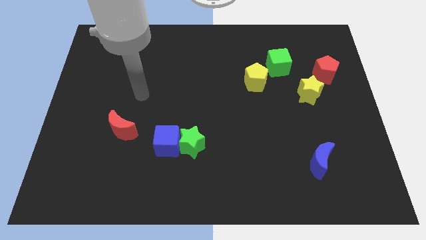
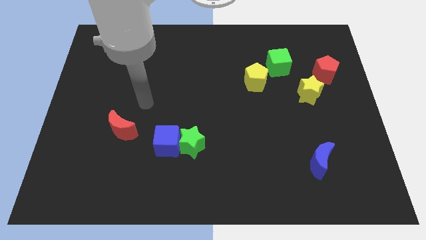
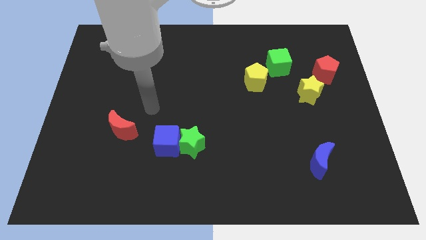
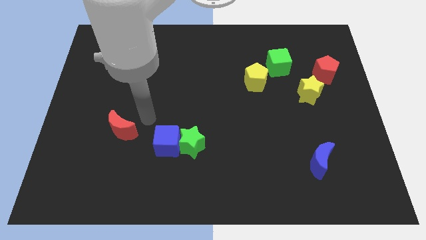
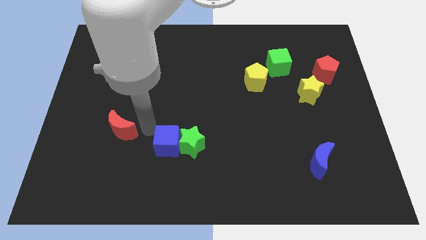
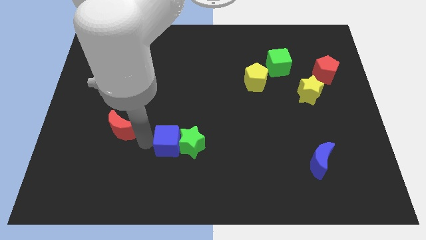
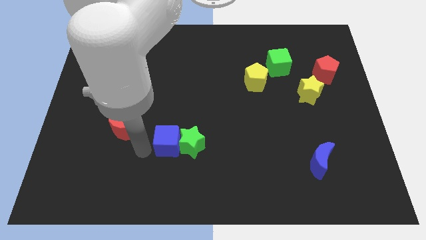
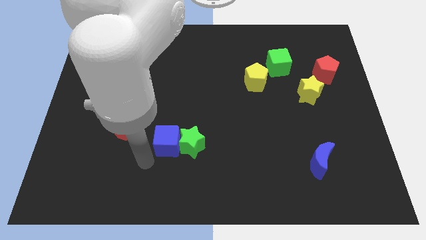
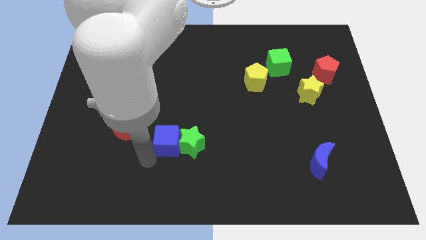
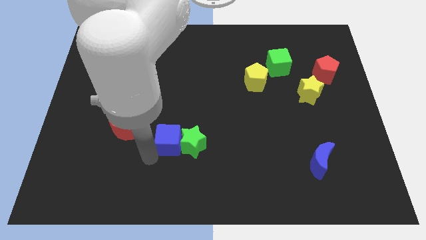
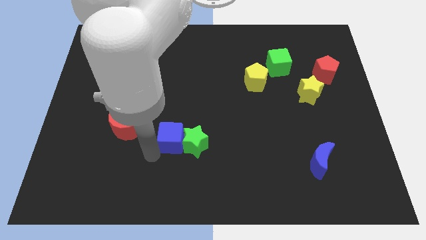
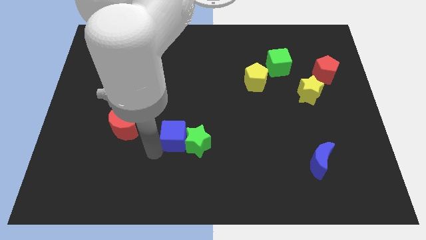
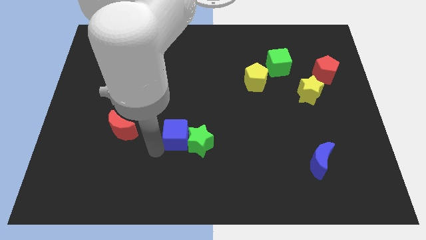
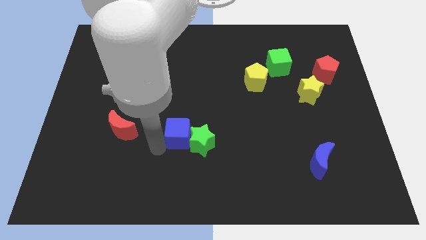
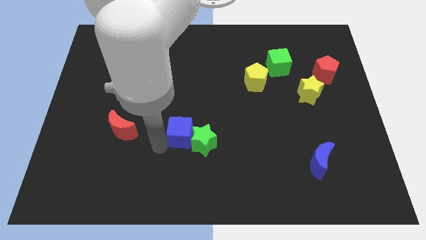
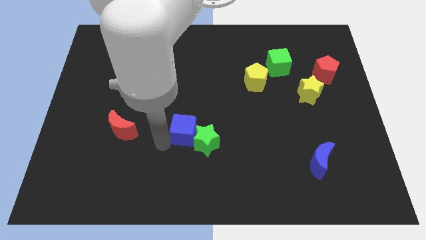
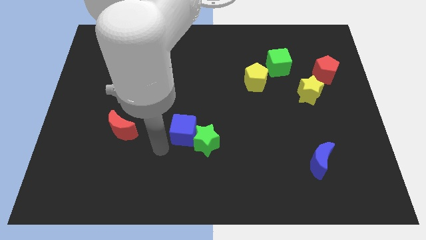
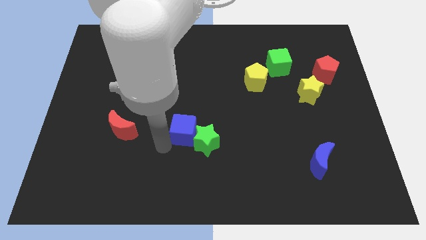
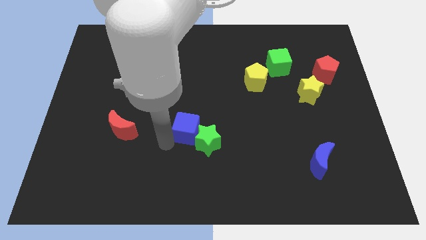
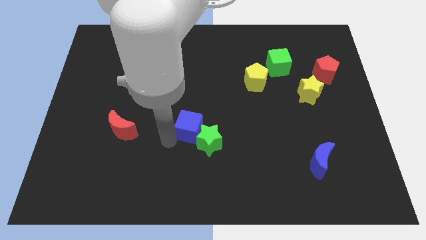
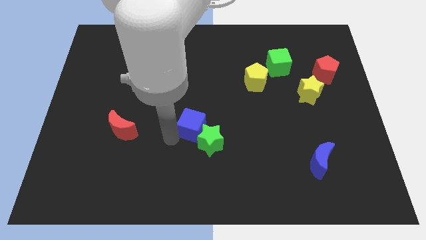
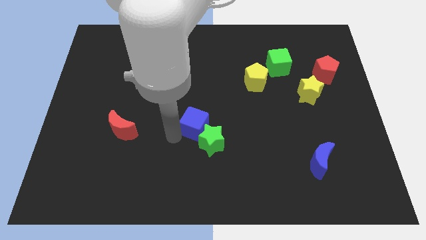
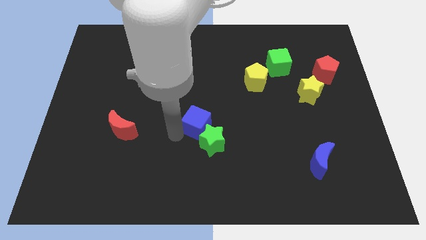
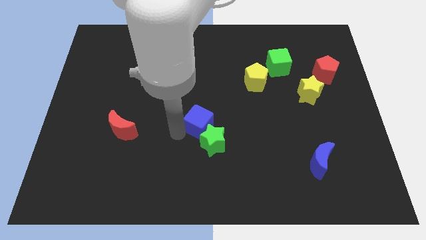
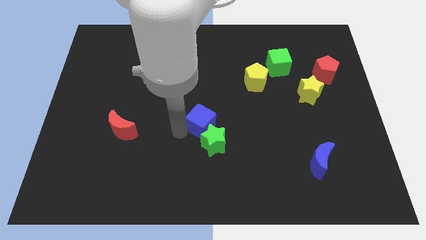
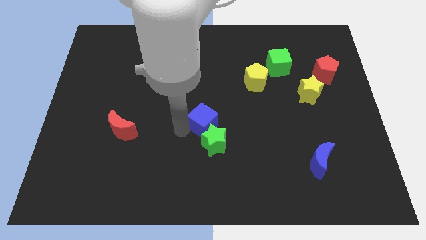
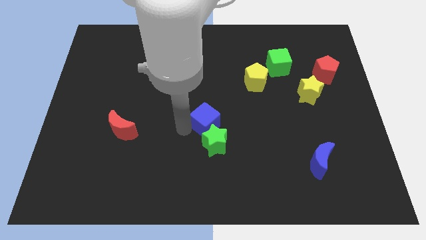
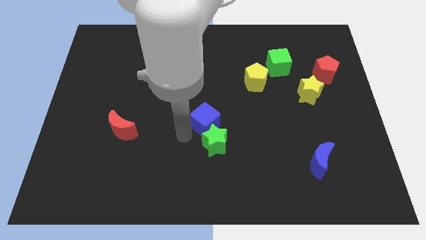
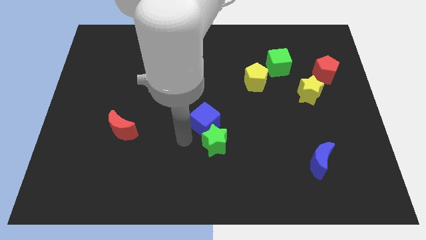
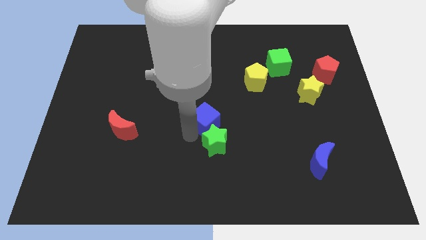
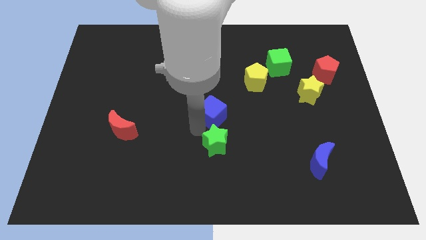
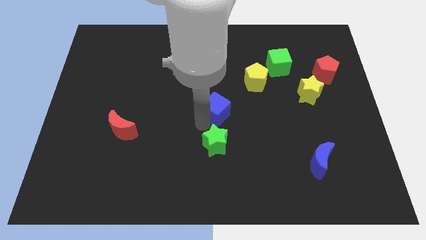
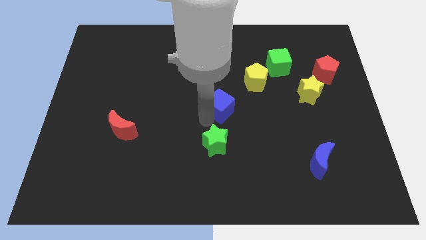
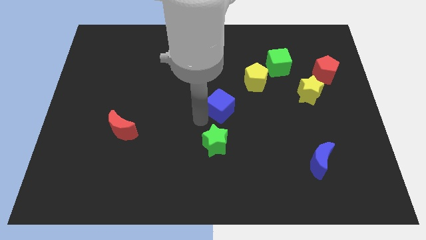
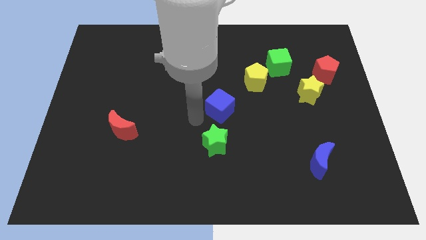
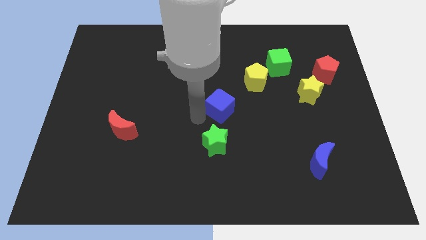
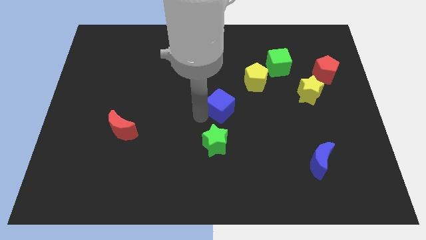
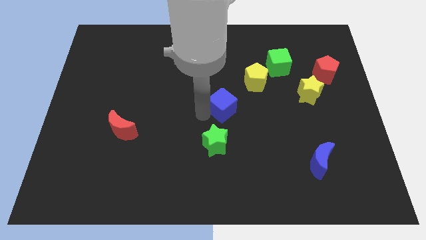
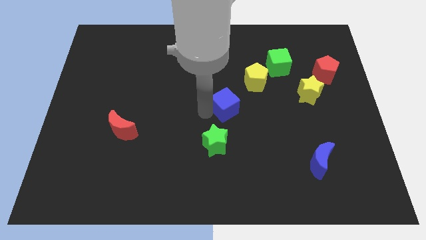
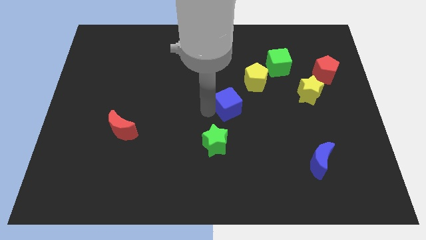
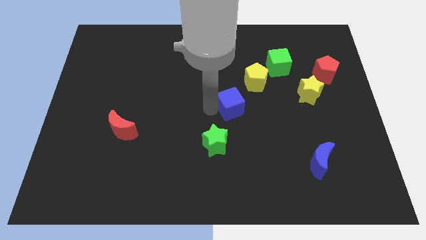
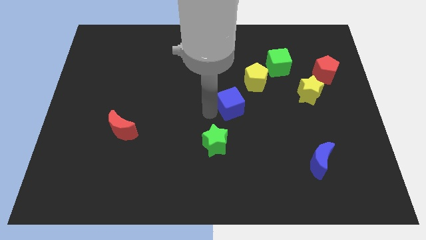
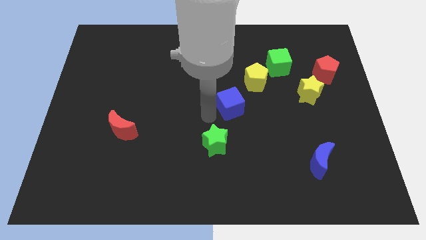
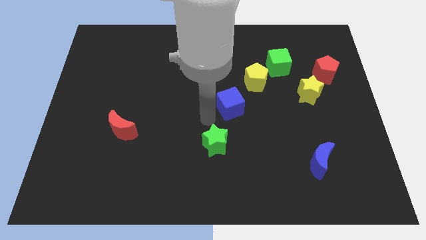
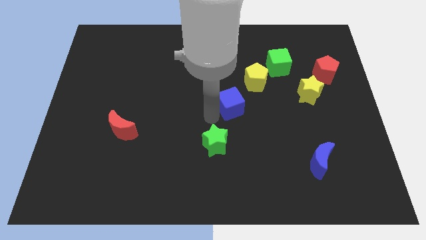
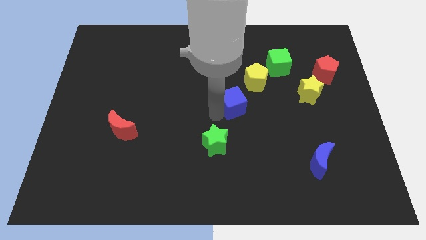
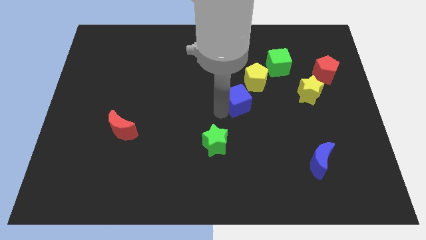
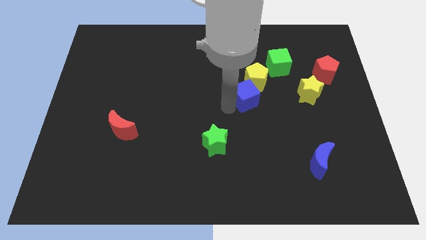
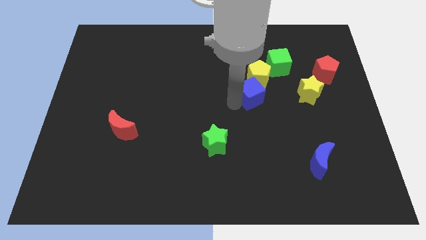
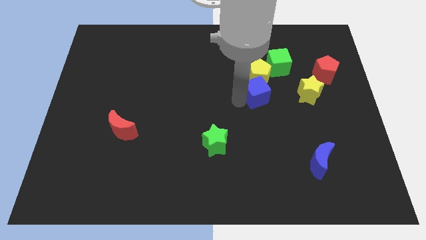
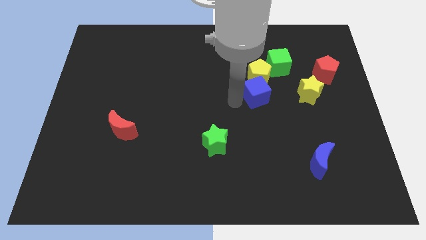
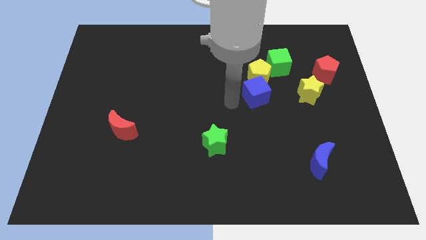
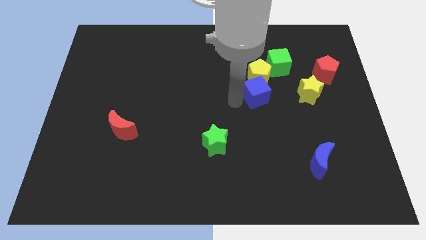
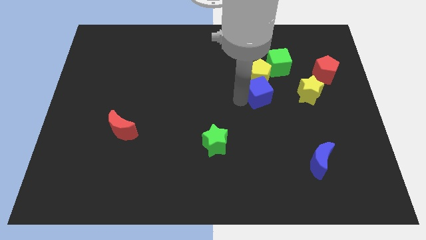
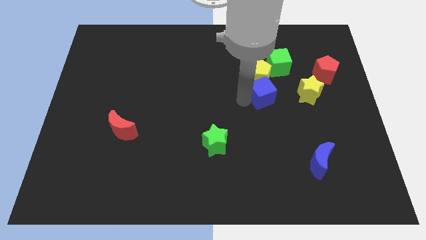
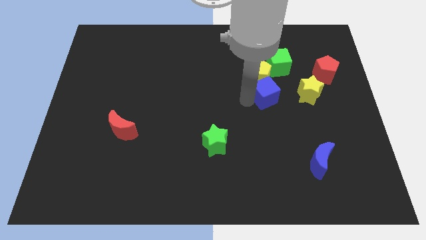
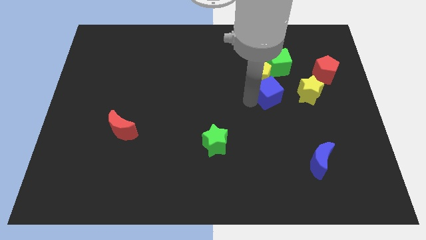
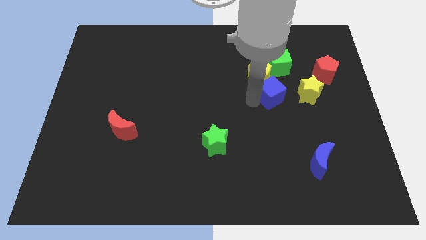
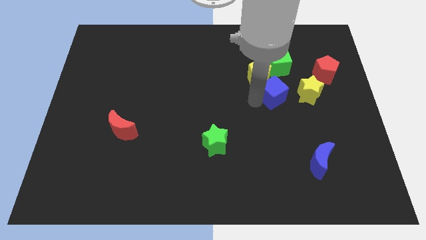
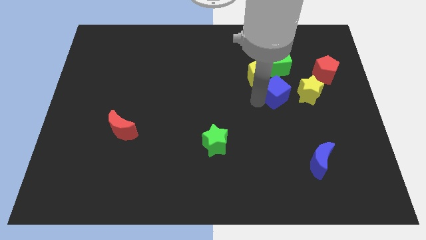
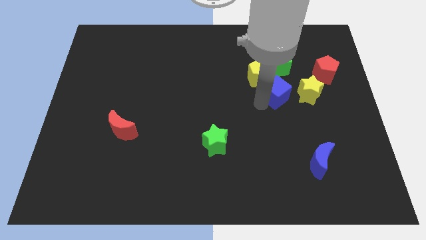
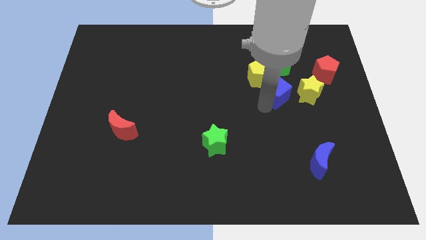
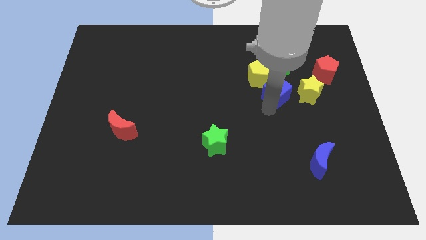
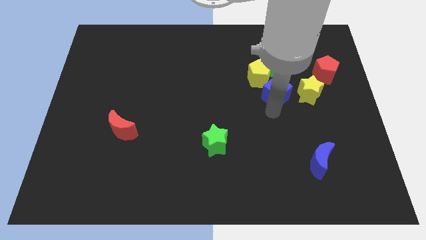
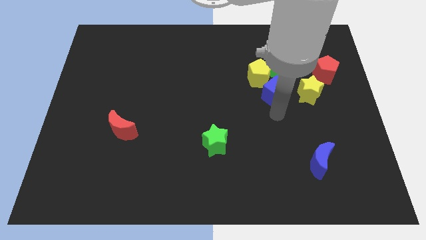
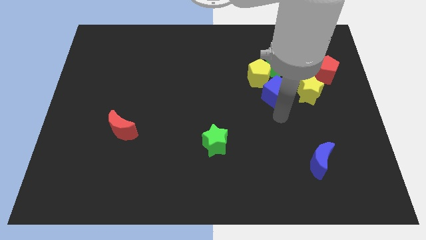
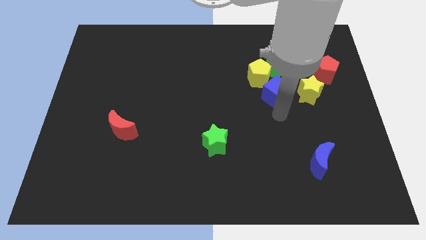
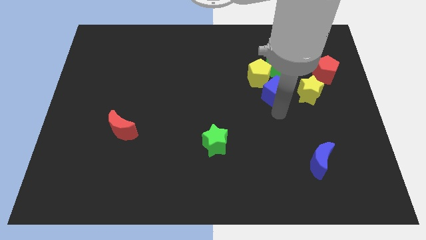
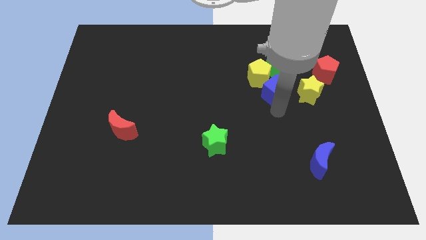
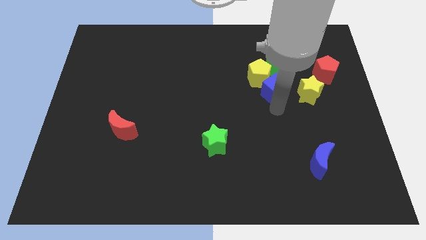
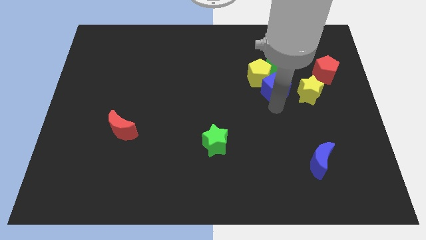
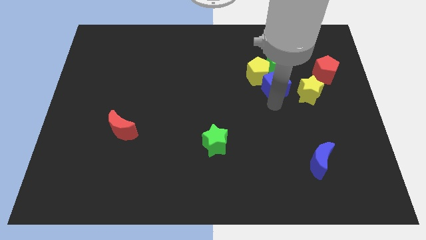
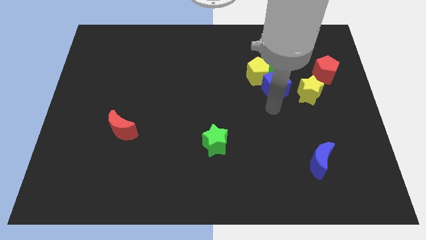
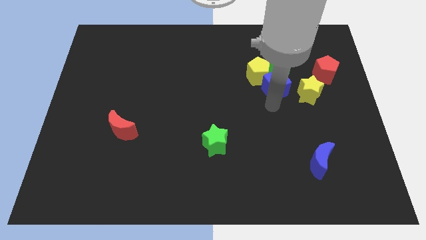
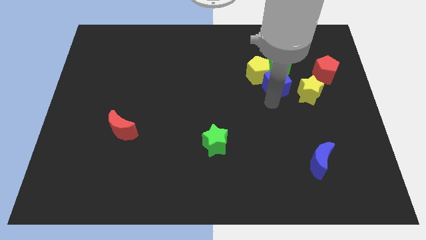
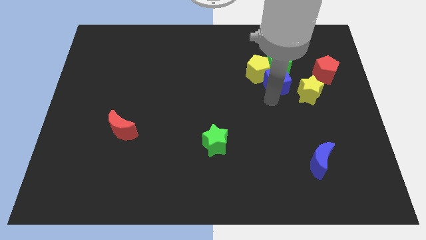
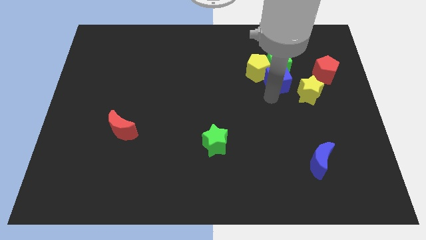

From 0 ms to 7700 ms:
put the blue cube close to the green cube
